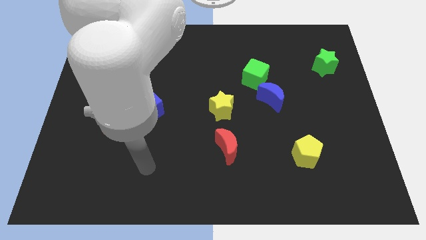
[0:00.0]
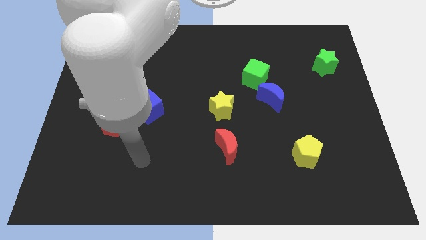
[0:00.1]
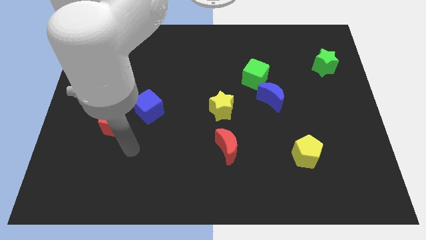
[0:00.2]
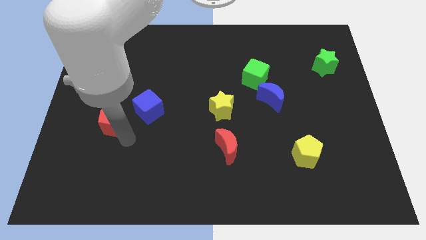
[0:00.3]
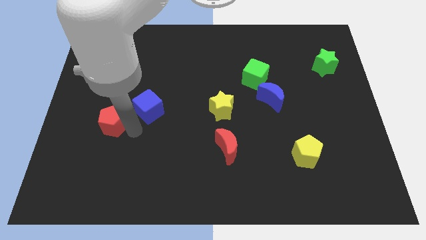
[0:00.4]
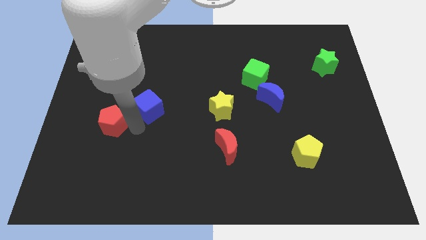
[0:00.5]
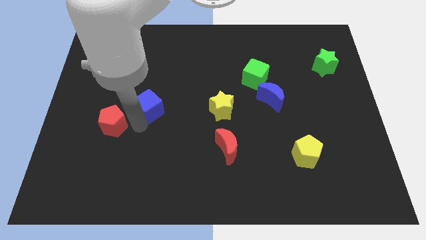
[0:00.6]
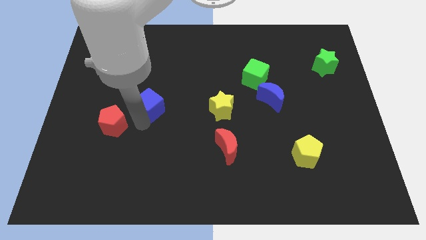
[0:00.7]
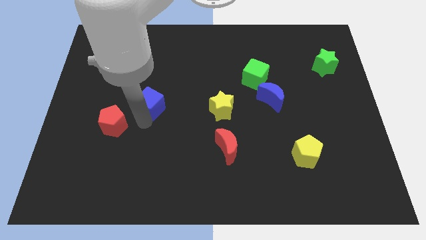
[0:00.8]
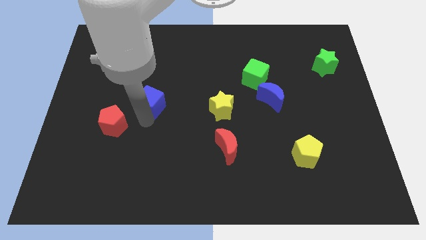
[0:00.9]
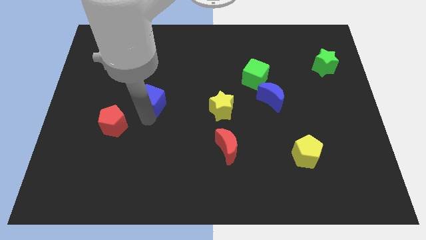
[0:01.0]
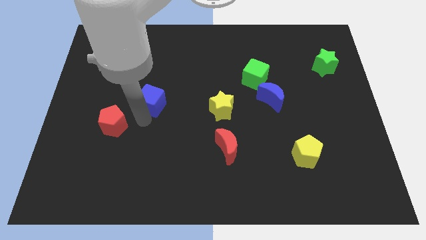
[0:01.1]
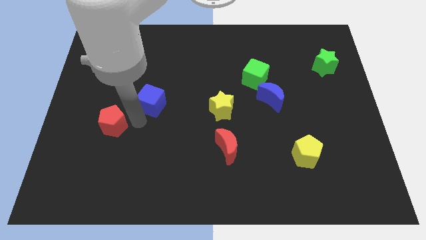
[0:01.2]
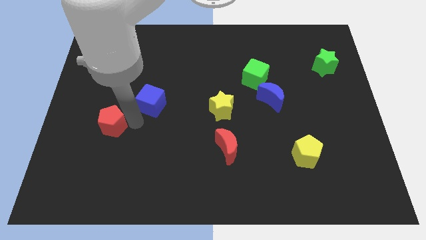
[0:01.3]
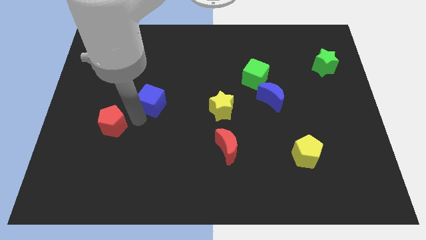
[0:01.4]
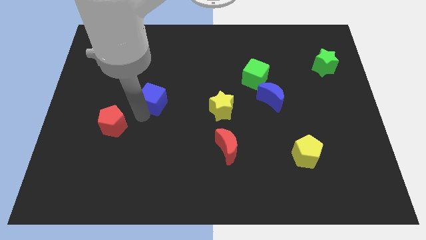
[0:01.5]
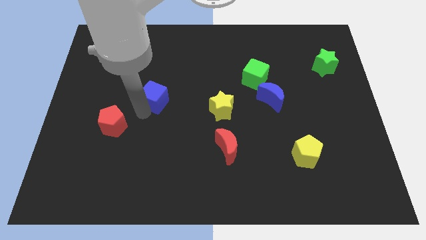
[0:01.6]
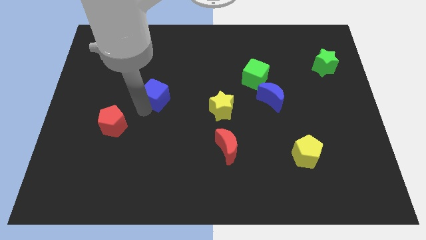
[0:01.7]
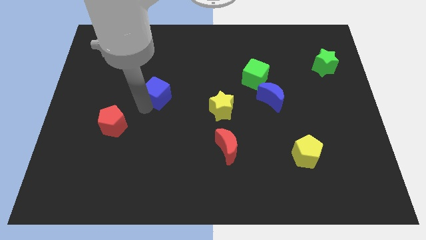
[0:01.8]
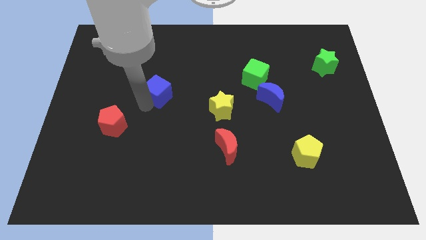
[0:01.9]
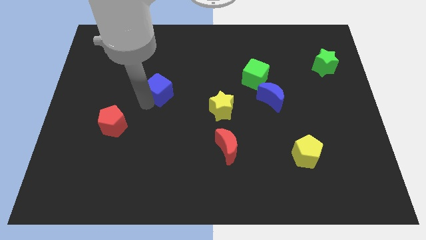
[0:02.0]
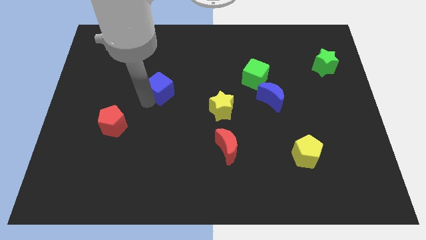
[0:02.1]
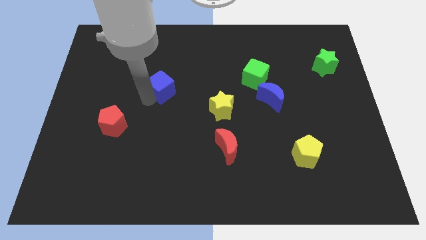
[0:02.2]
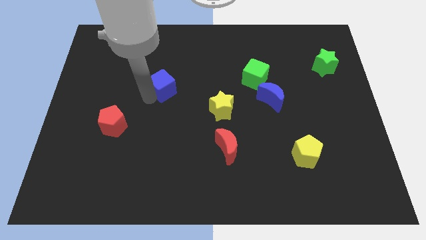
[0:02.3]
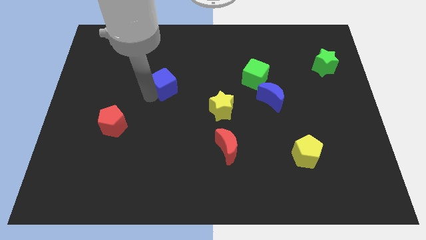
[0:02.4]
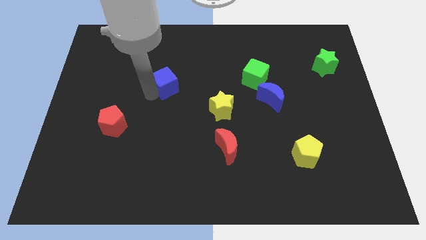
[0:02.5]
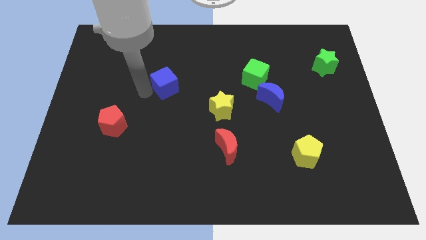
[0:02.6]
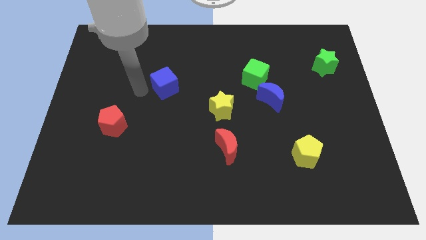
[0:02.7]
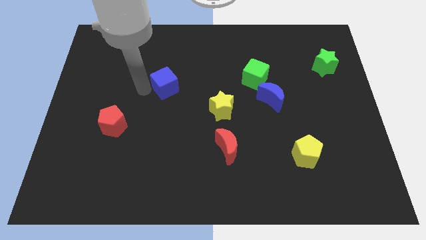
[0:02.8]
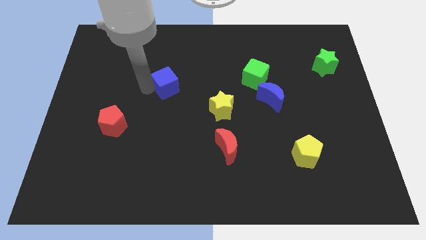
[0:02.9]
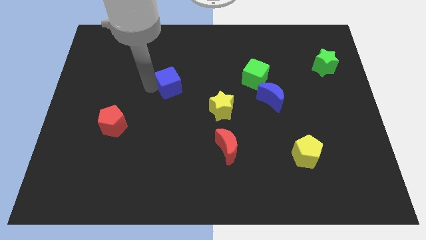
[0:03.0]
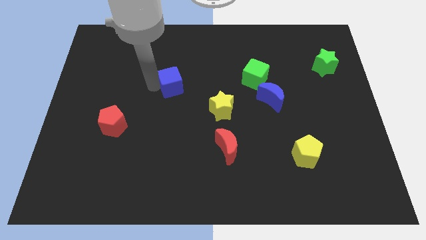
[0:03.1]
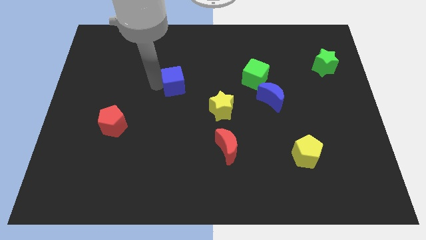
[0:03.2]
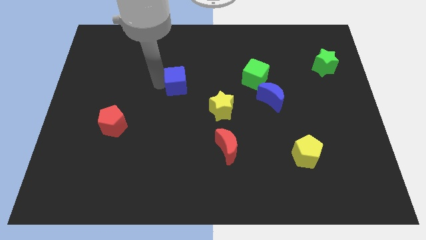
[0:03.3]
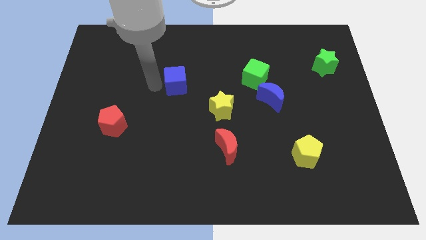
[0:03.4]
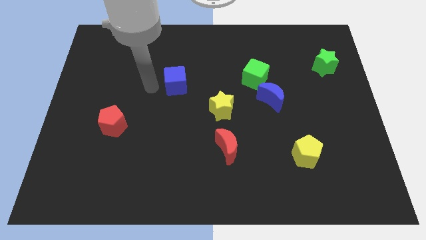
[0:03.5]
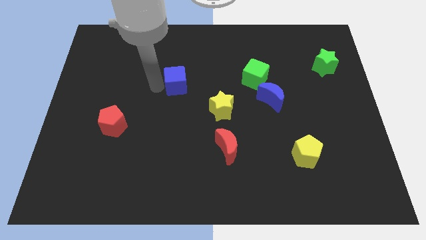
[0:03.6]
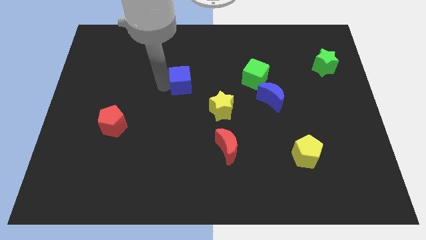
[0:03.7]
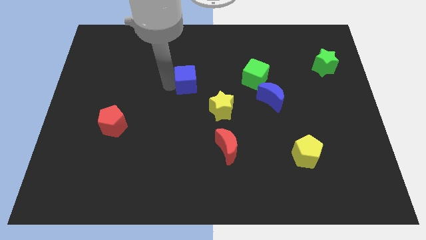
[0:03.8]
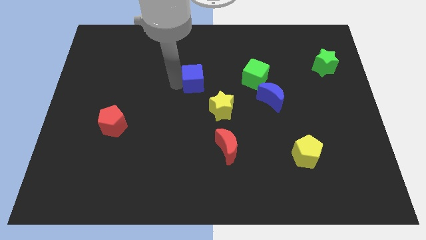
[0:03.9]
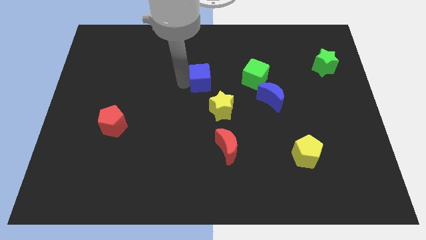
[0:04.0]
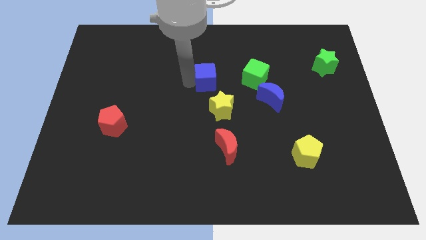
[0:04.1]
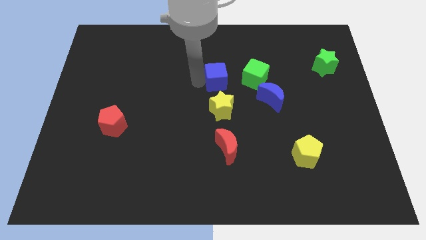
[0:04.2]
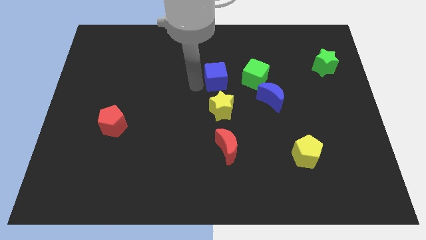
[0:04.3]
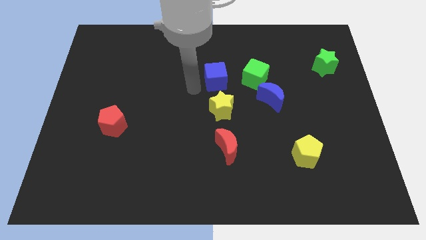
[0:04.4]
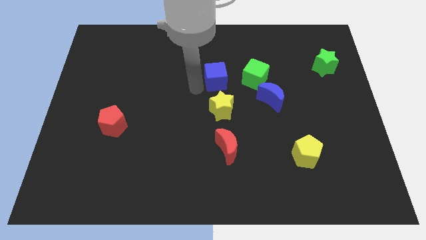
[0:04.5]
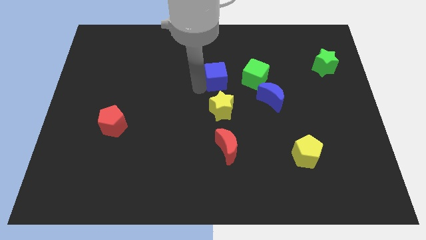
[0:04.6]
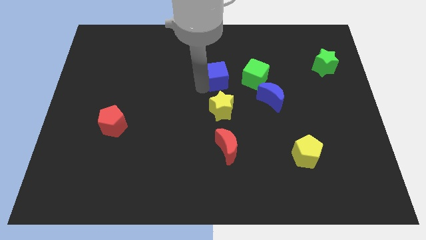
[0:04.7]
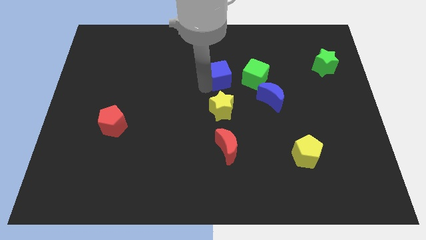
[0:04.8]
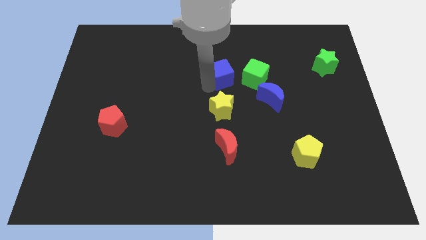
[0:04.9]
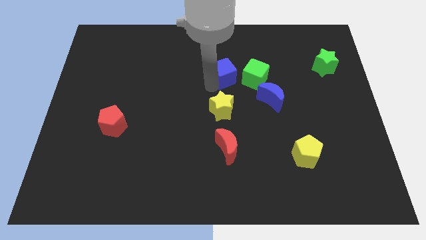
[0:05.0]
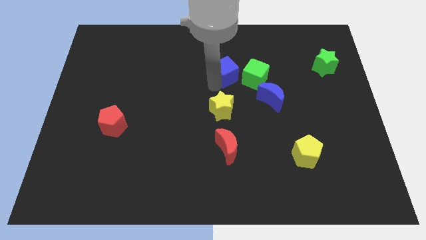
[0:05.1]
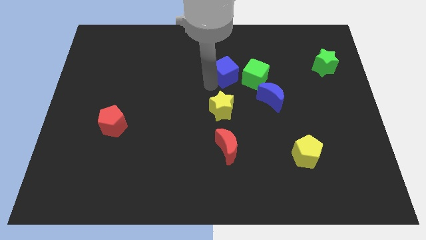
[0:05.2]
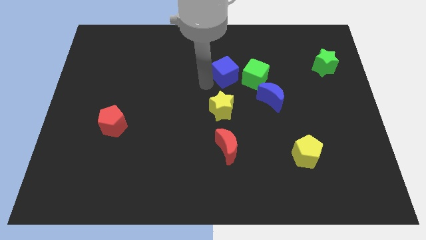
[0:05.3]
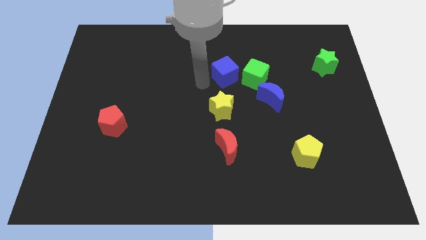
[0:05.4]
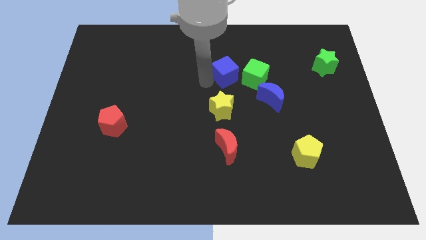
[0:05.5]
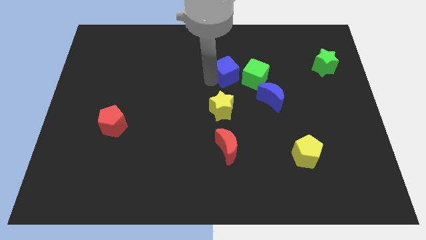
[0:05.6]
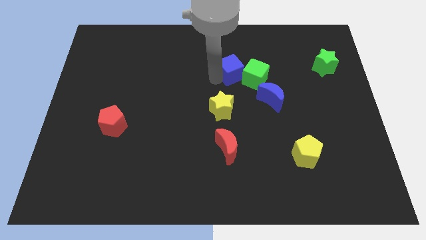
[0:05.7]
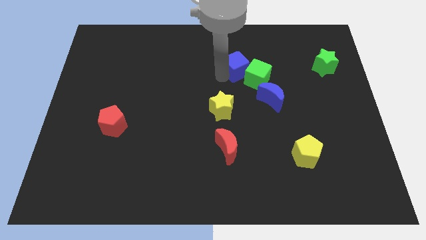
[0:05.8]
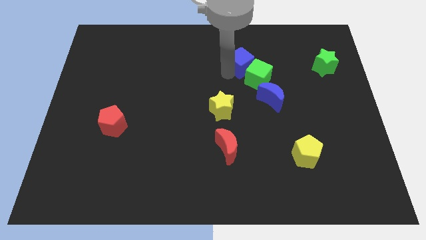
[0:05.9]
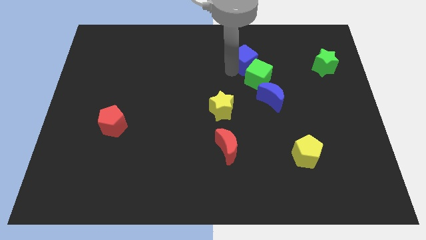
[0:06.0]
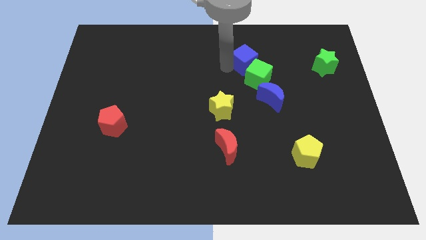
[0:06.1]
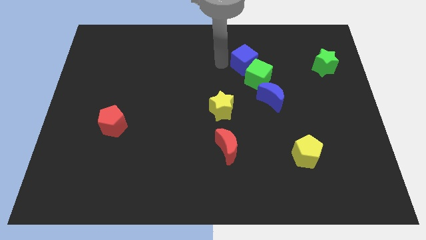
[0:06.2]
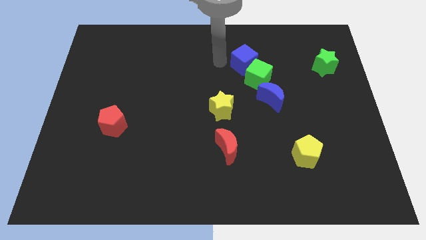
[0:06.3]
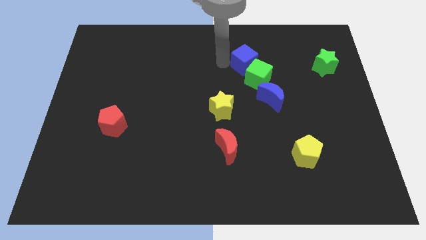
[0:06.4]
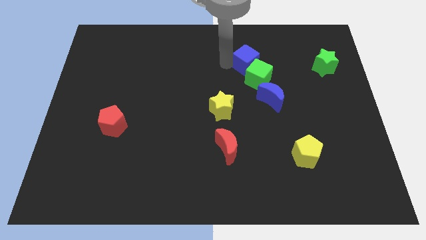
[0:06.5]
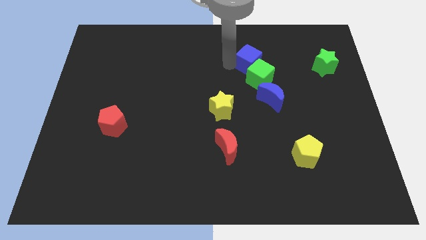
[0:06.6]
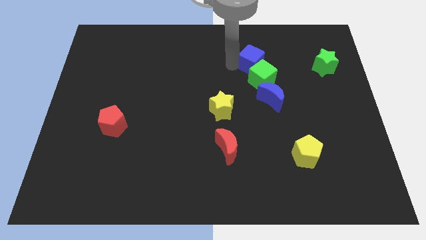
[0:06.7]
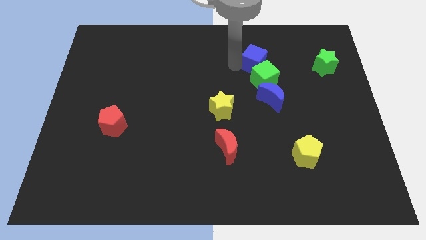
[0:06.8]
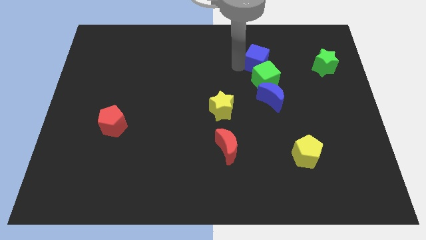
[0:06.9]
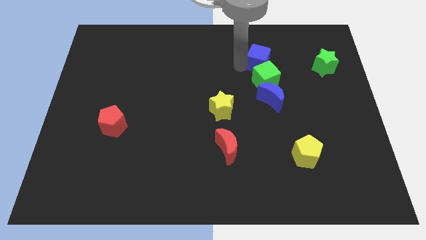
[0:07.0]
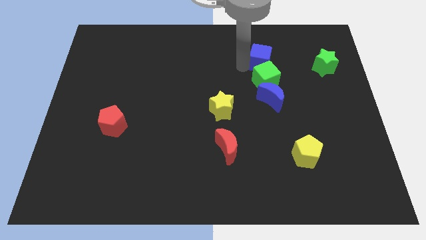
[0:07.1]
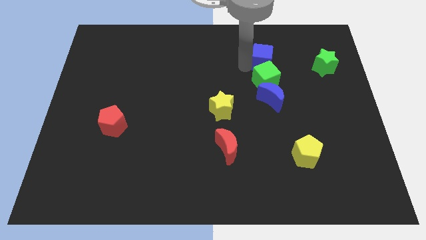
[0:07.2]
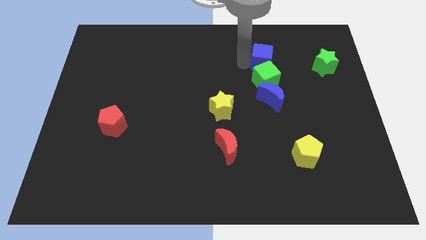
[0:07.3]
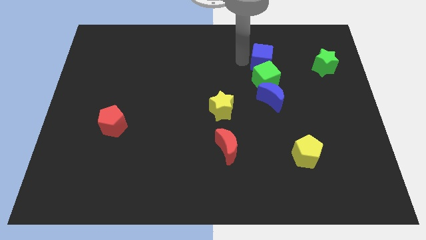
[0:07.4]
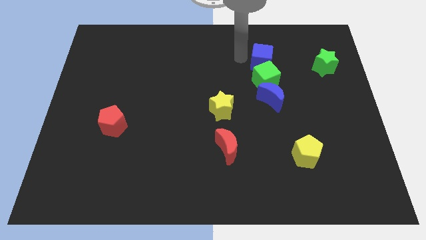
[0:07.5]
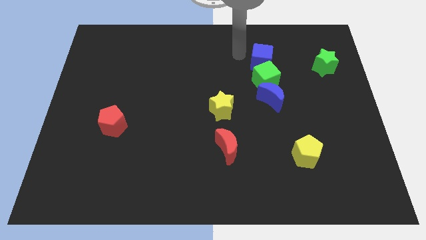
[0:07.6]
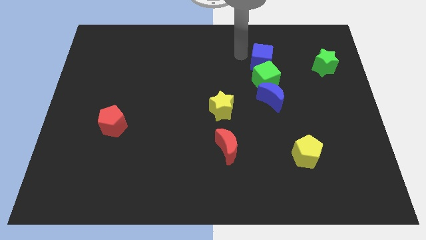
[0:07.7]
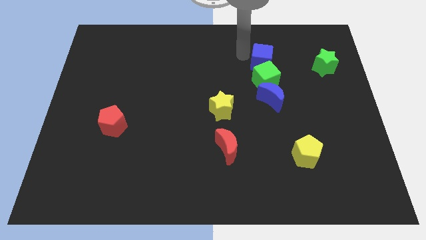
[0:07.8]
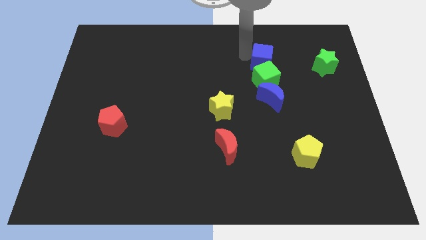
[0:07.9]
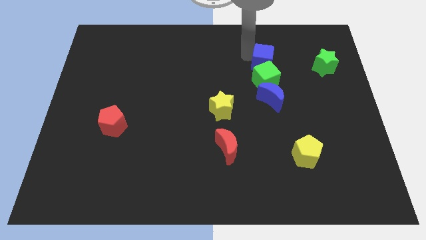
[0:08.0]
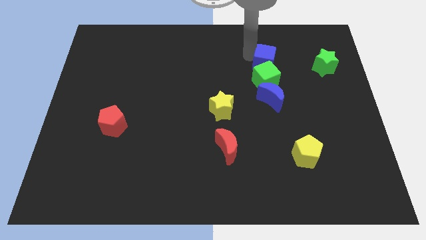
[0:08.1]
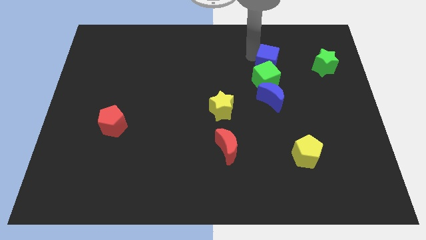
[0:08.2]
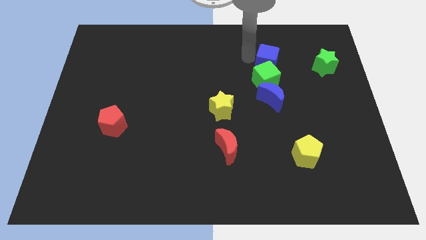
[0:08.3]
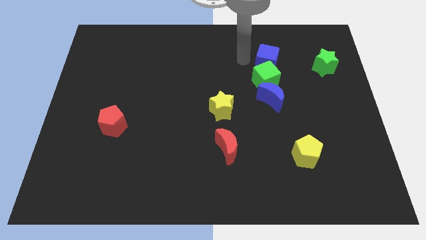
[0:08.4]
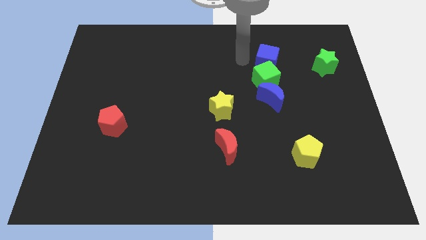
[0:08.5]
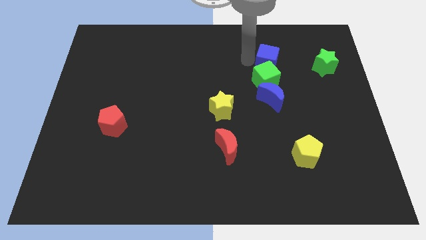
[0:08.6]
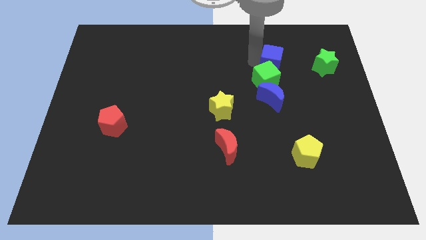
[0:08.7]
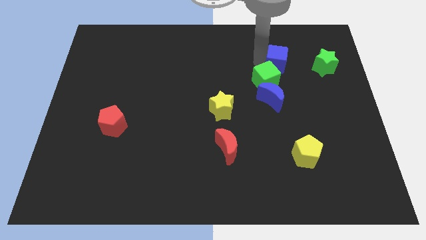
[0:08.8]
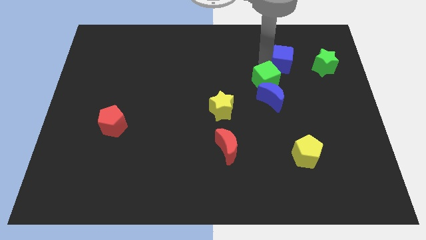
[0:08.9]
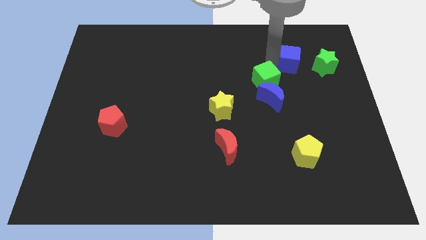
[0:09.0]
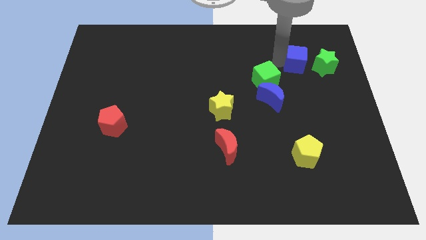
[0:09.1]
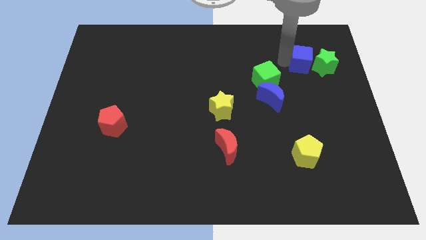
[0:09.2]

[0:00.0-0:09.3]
push the blue cube next to the green star
